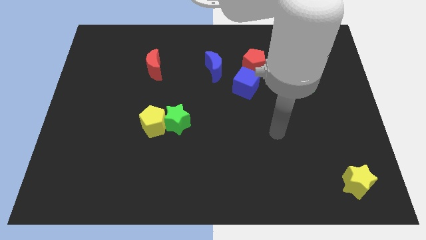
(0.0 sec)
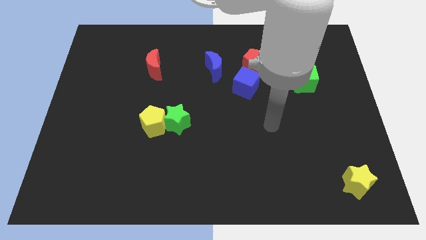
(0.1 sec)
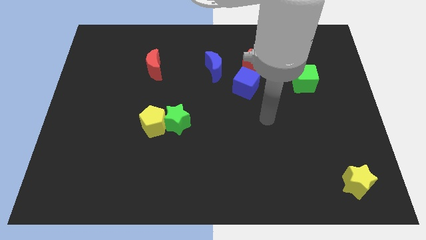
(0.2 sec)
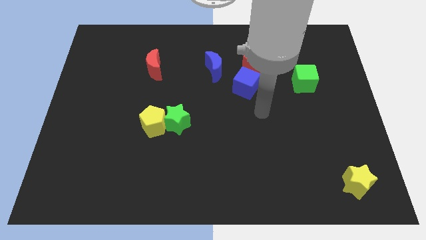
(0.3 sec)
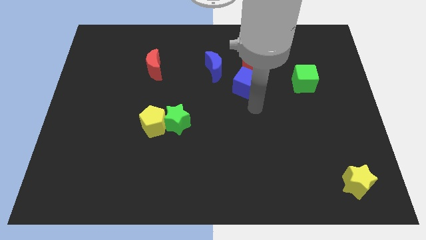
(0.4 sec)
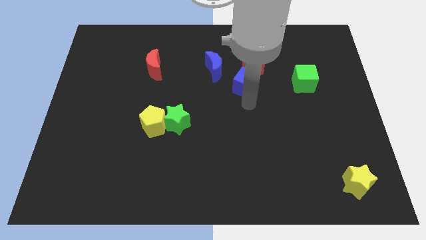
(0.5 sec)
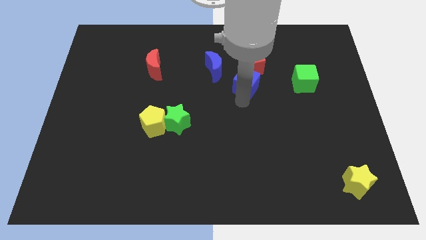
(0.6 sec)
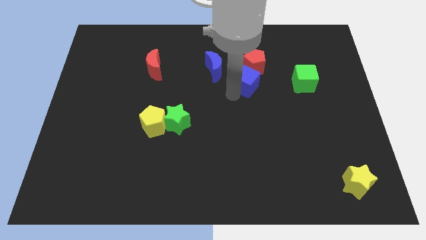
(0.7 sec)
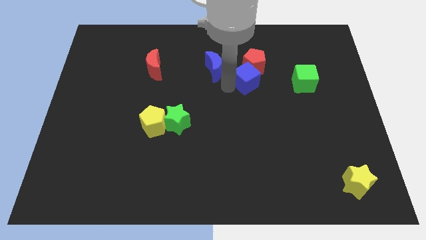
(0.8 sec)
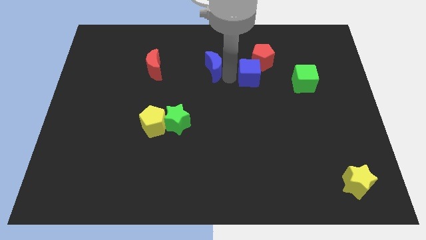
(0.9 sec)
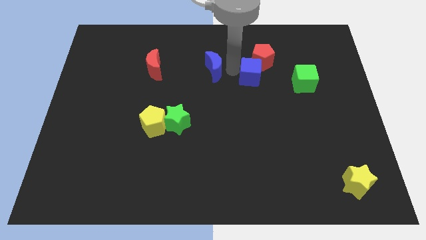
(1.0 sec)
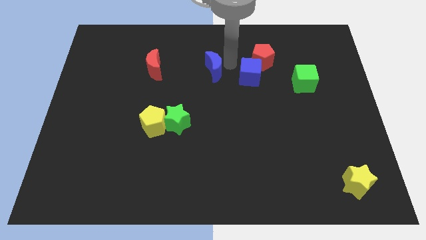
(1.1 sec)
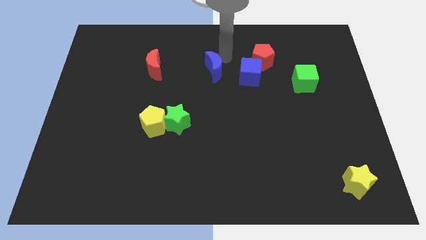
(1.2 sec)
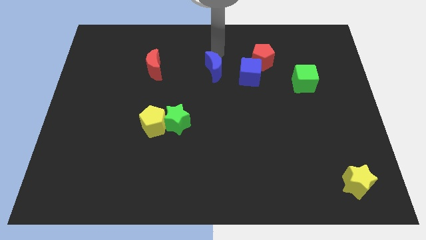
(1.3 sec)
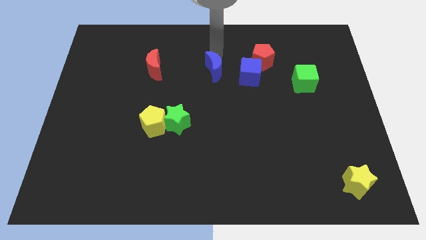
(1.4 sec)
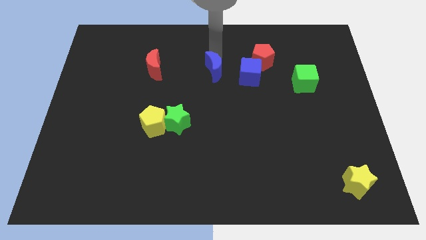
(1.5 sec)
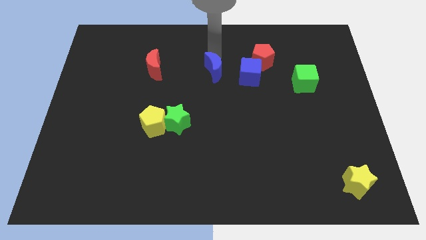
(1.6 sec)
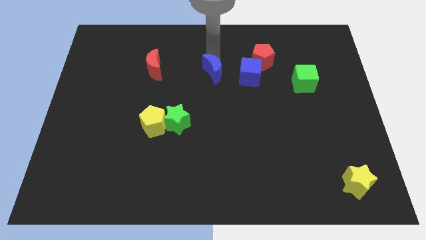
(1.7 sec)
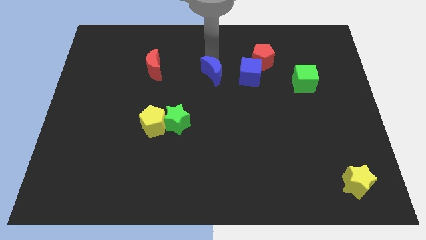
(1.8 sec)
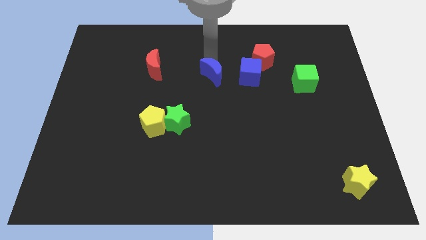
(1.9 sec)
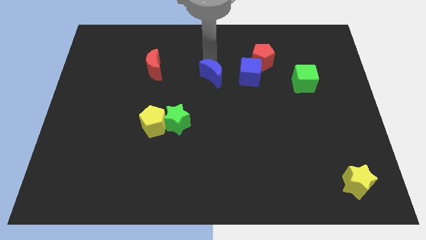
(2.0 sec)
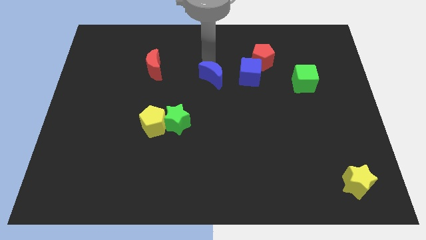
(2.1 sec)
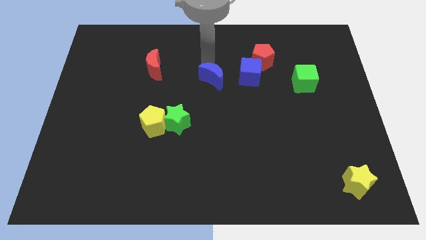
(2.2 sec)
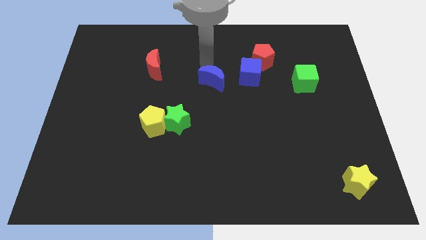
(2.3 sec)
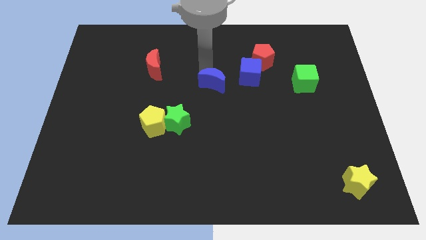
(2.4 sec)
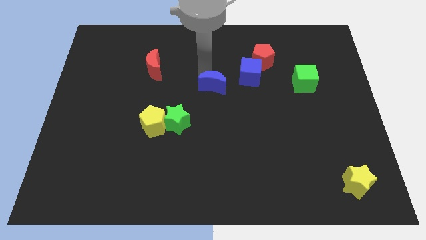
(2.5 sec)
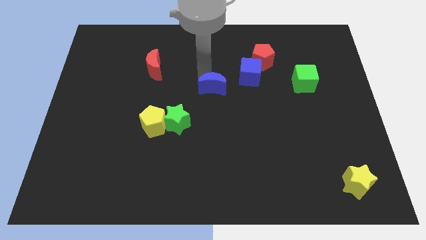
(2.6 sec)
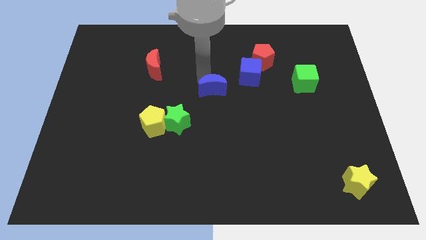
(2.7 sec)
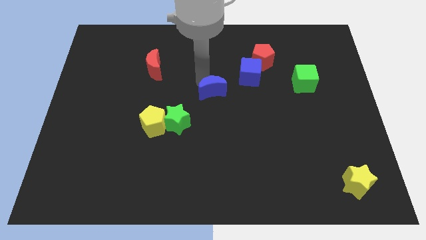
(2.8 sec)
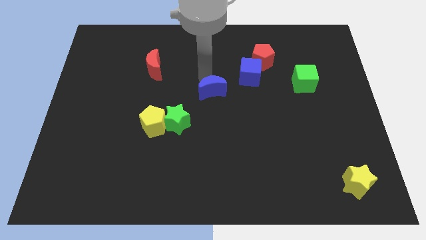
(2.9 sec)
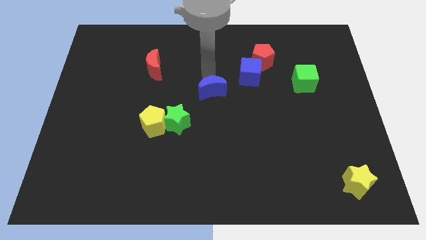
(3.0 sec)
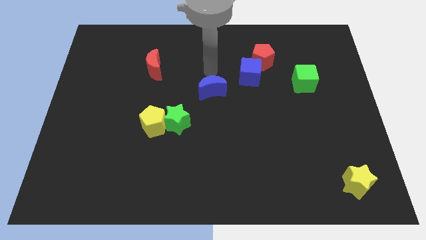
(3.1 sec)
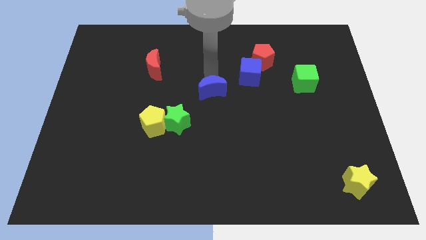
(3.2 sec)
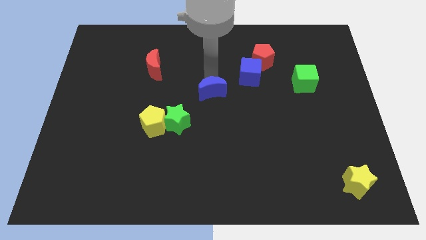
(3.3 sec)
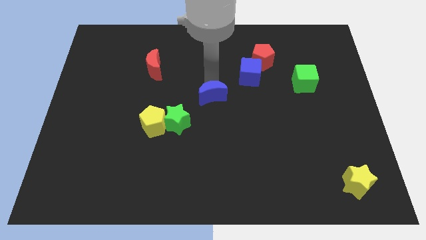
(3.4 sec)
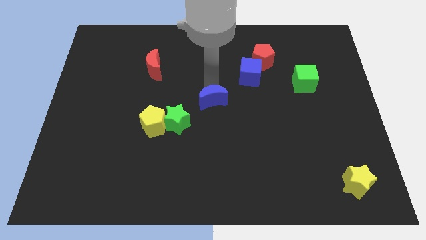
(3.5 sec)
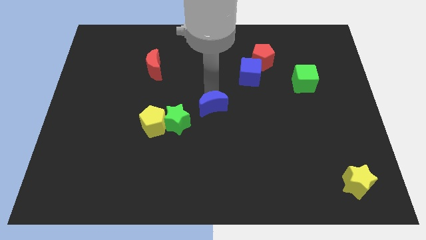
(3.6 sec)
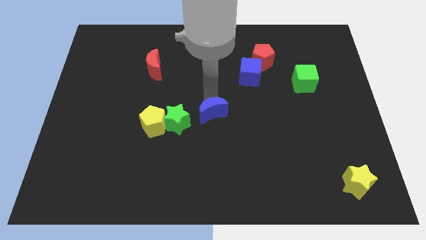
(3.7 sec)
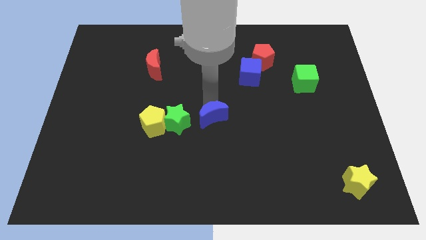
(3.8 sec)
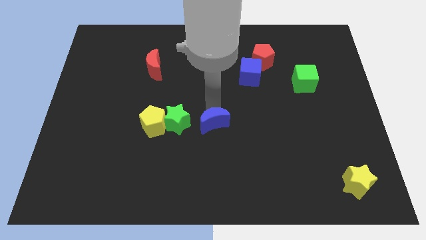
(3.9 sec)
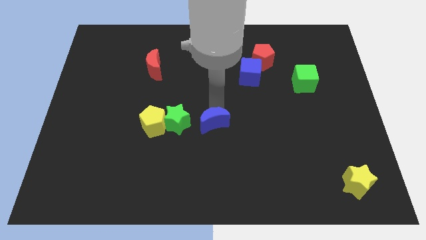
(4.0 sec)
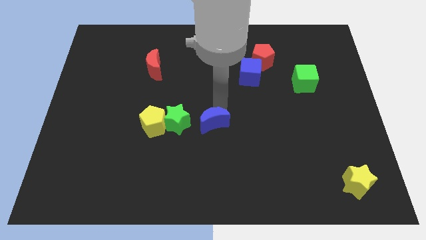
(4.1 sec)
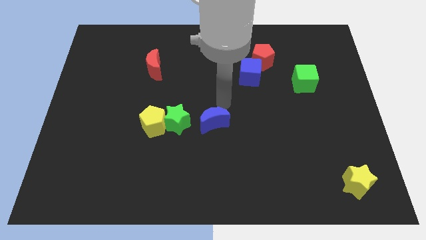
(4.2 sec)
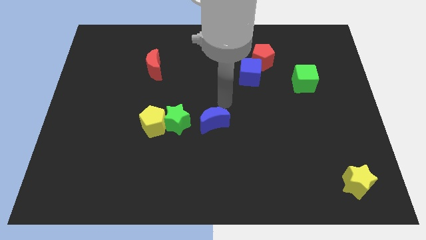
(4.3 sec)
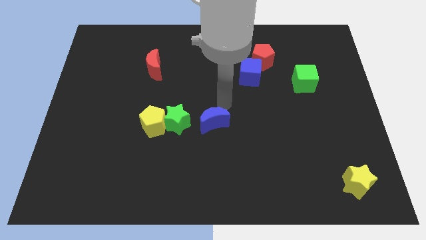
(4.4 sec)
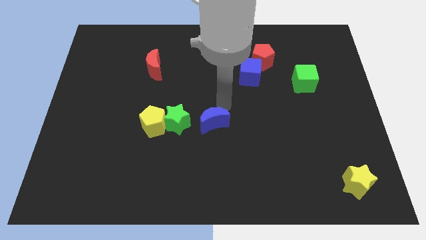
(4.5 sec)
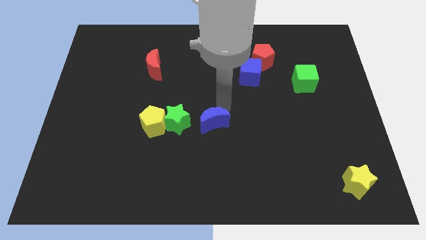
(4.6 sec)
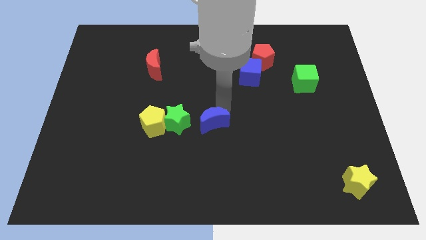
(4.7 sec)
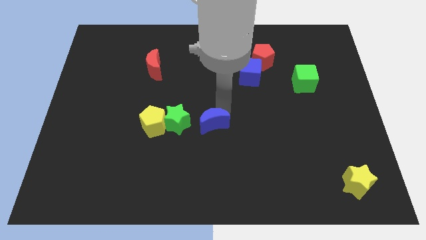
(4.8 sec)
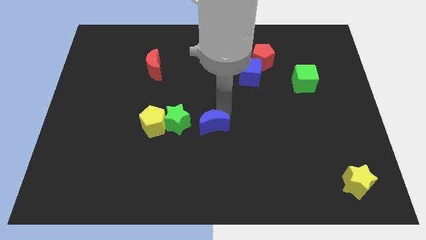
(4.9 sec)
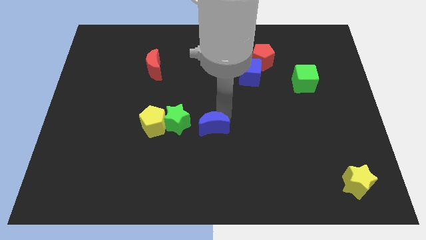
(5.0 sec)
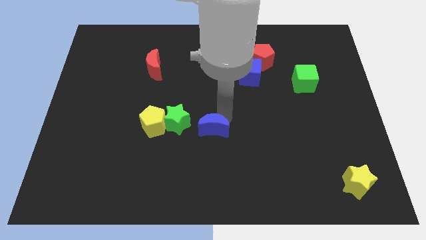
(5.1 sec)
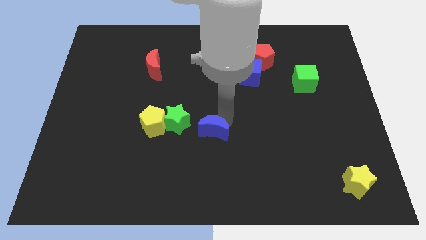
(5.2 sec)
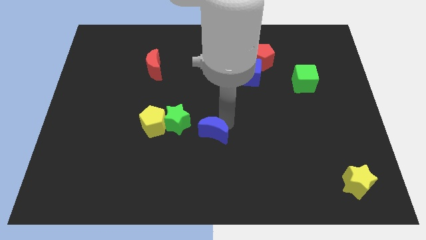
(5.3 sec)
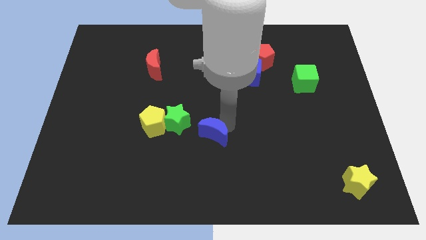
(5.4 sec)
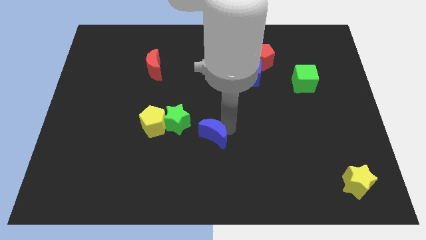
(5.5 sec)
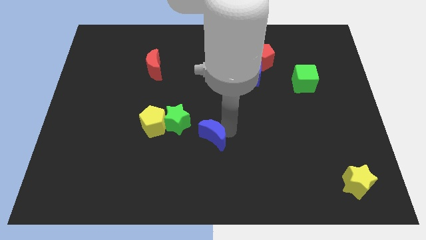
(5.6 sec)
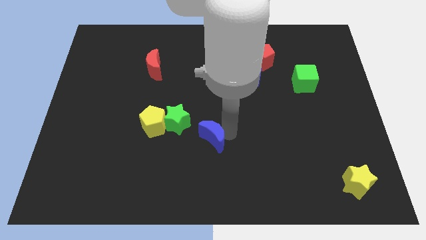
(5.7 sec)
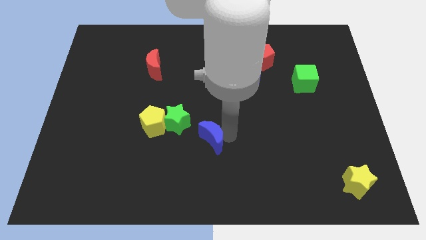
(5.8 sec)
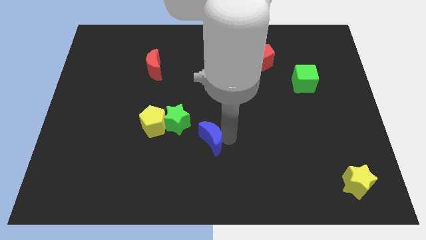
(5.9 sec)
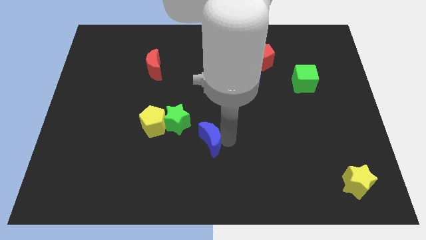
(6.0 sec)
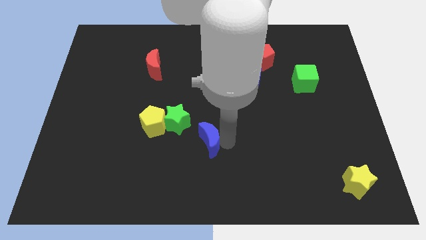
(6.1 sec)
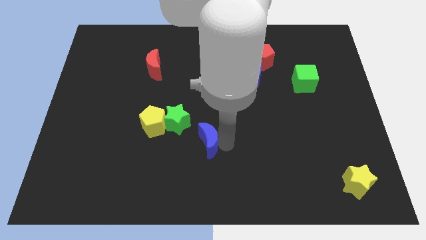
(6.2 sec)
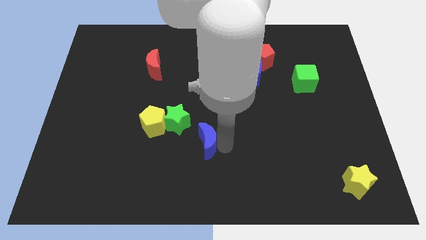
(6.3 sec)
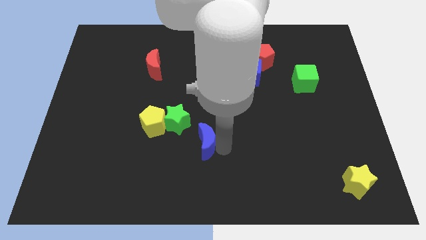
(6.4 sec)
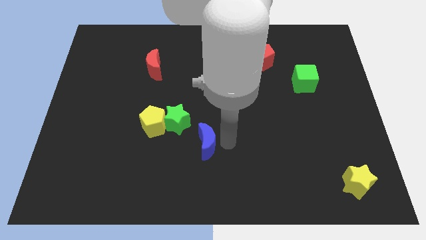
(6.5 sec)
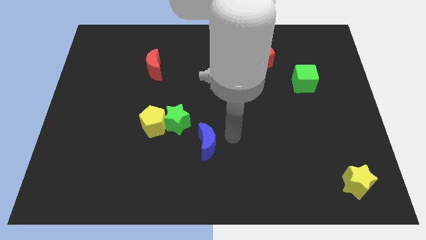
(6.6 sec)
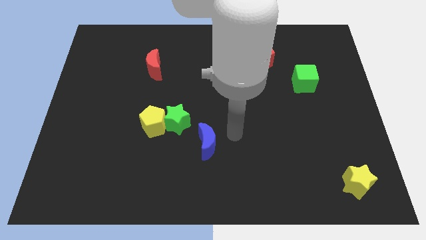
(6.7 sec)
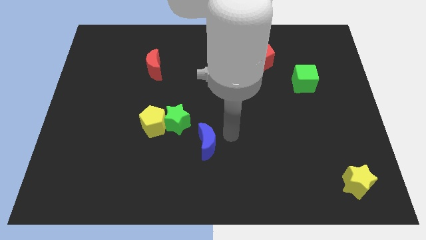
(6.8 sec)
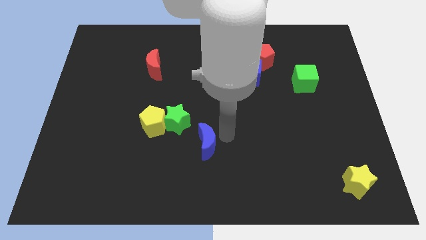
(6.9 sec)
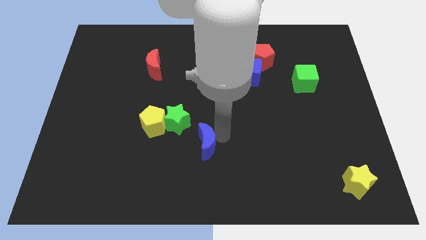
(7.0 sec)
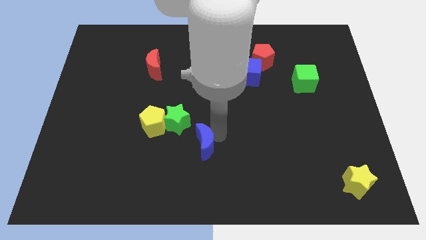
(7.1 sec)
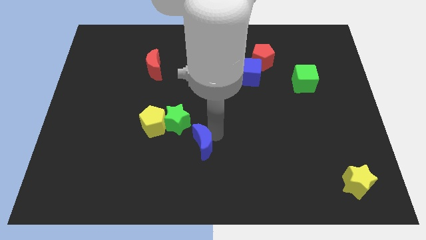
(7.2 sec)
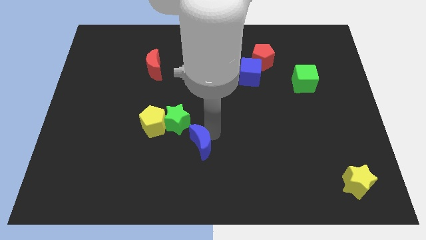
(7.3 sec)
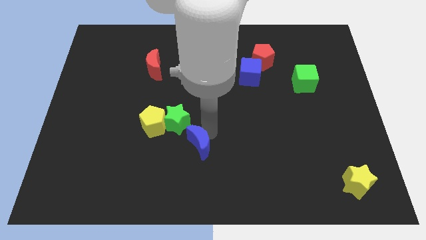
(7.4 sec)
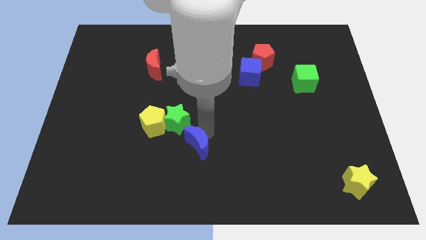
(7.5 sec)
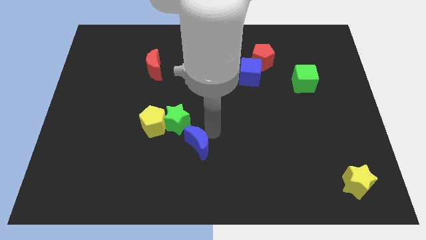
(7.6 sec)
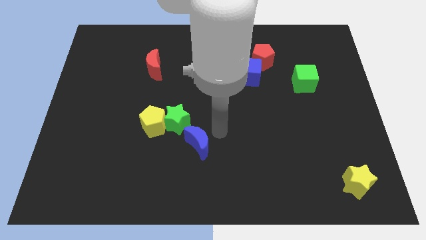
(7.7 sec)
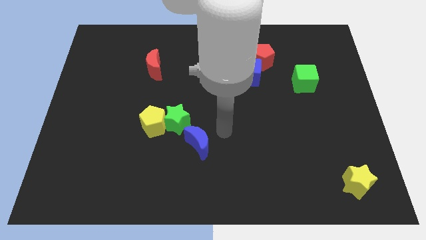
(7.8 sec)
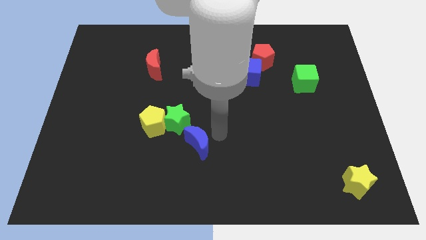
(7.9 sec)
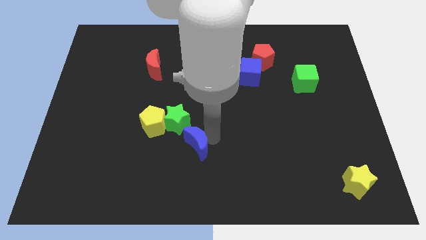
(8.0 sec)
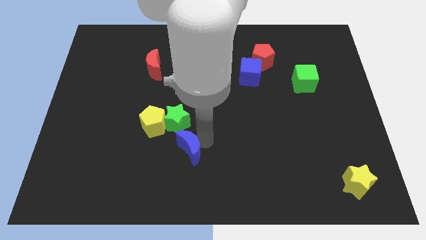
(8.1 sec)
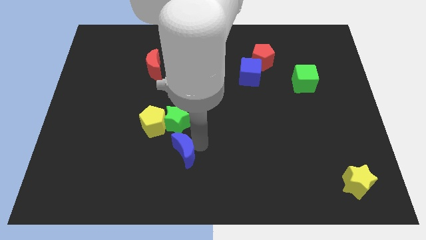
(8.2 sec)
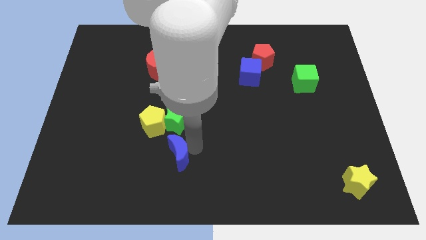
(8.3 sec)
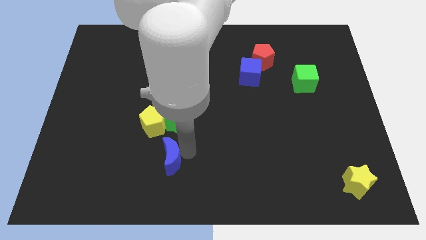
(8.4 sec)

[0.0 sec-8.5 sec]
slide the blue moon below the yellow pentagon
